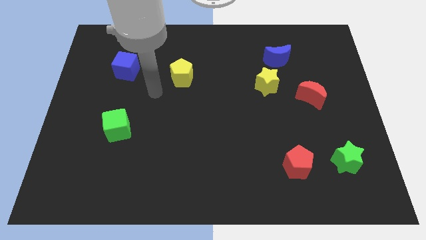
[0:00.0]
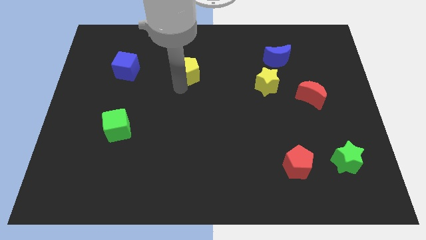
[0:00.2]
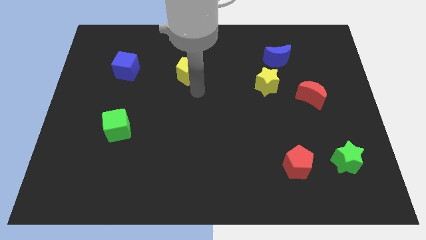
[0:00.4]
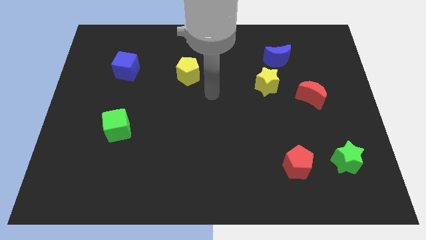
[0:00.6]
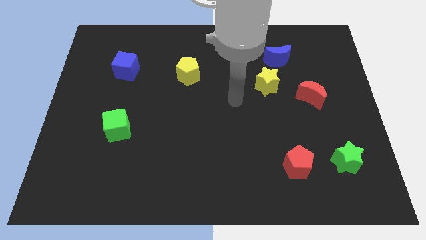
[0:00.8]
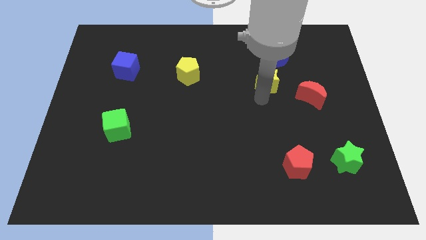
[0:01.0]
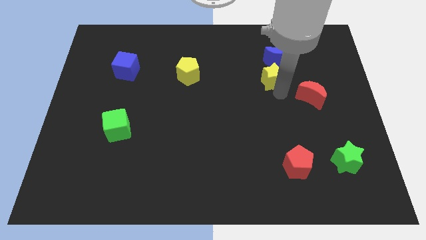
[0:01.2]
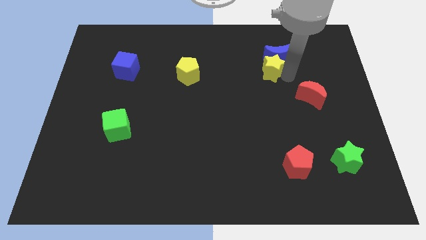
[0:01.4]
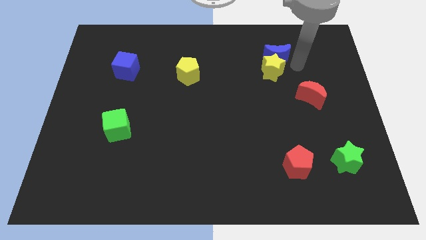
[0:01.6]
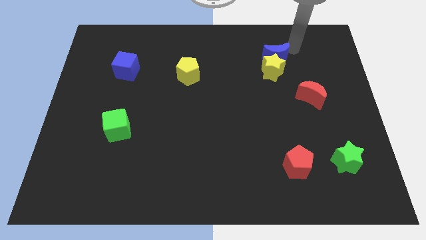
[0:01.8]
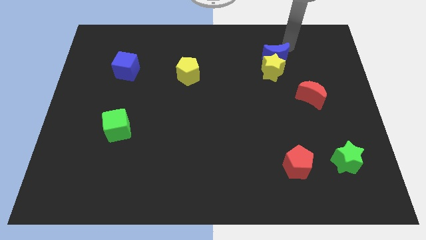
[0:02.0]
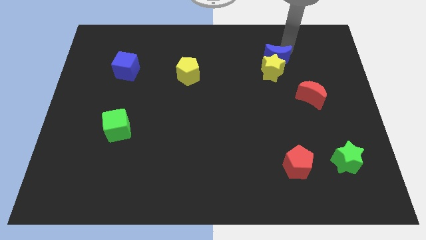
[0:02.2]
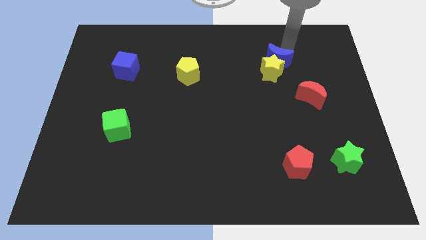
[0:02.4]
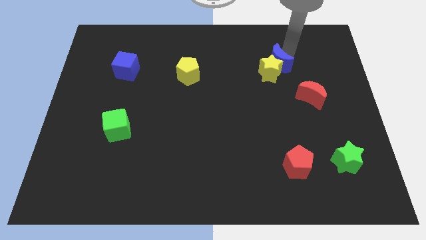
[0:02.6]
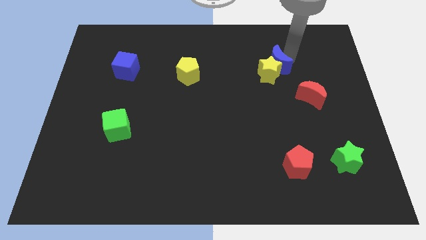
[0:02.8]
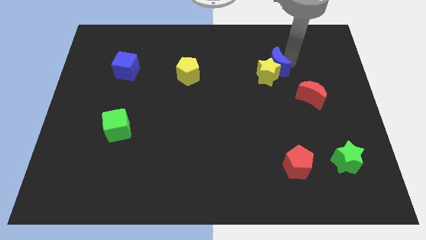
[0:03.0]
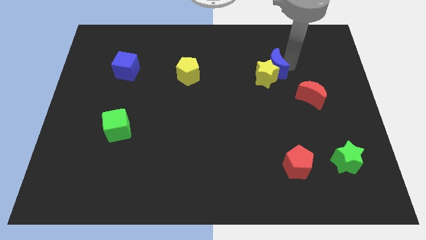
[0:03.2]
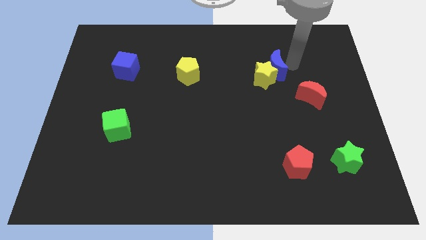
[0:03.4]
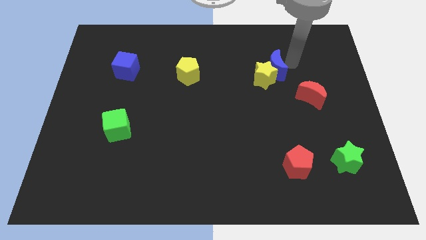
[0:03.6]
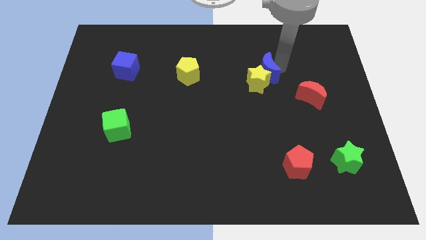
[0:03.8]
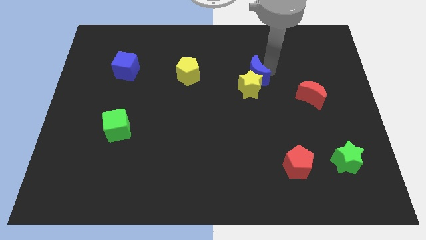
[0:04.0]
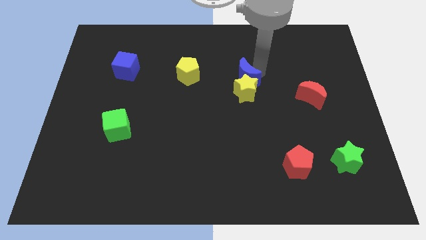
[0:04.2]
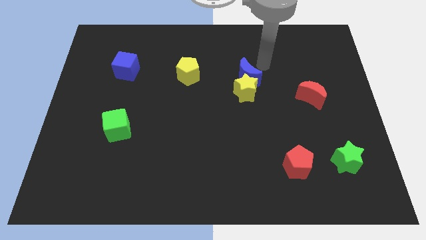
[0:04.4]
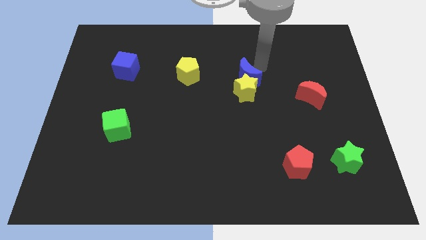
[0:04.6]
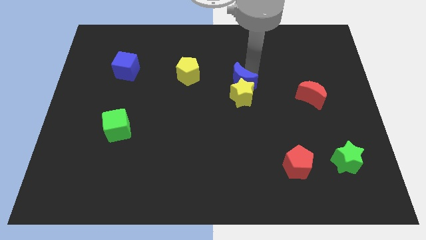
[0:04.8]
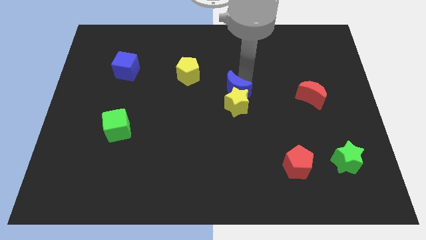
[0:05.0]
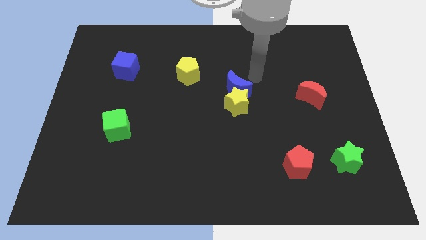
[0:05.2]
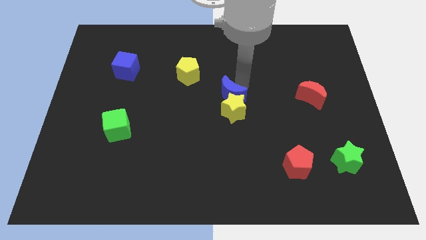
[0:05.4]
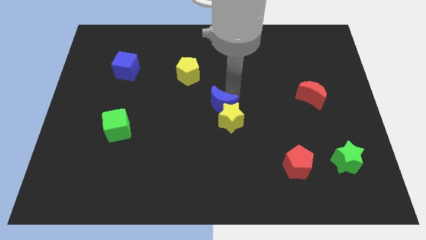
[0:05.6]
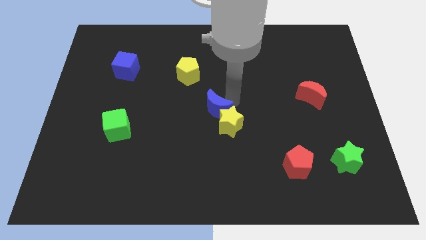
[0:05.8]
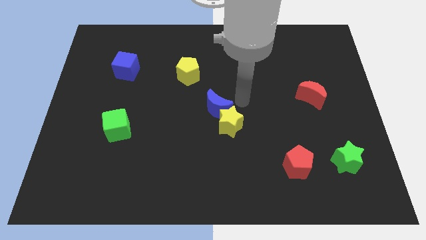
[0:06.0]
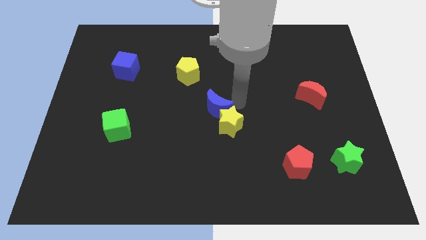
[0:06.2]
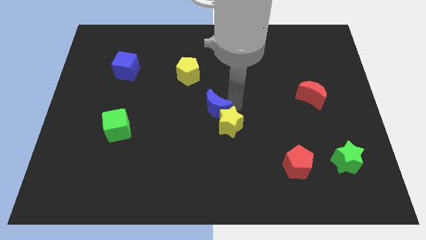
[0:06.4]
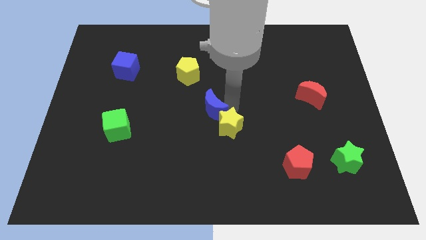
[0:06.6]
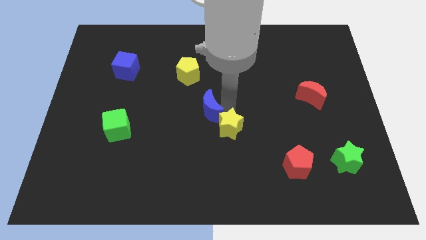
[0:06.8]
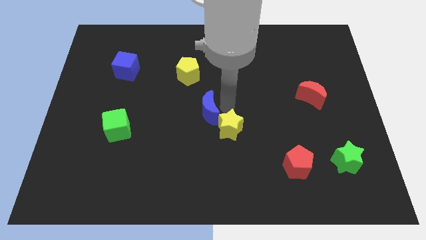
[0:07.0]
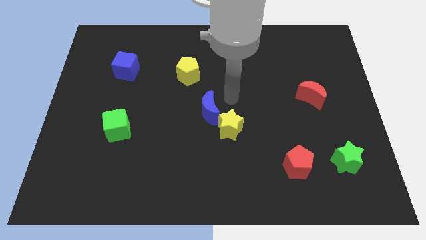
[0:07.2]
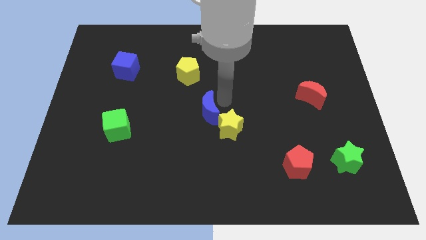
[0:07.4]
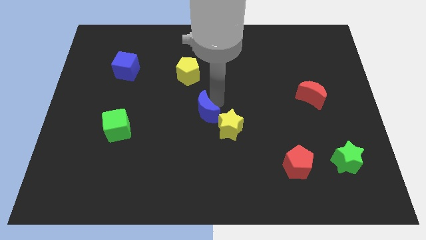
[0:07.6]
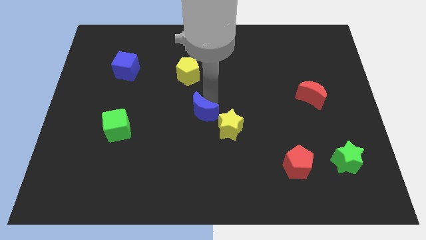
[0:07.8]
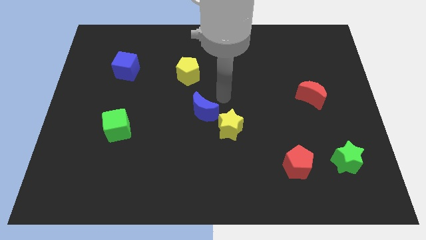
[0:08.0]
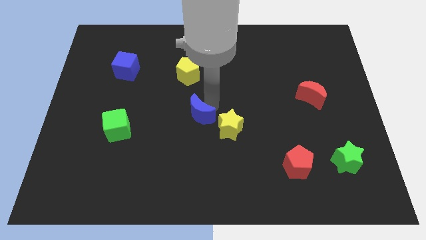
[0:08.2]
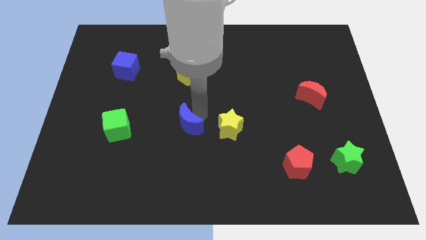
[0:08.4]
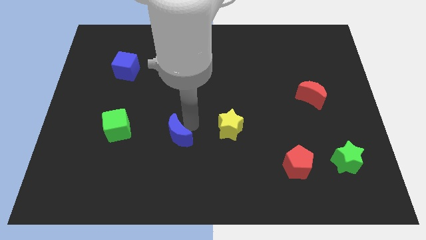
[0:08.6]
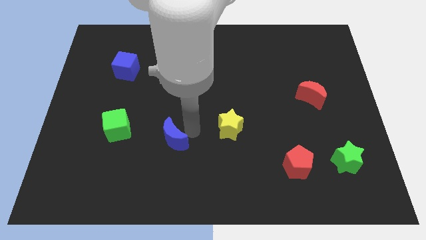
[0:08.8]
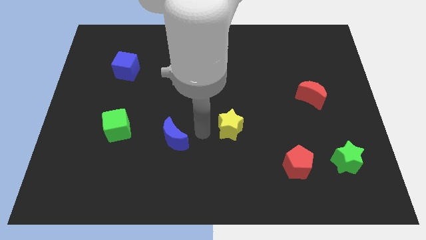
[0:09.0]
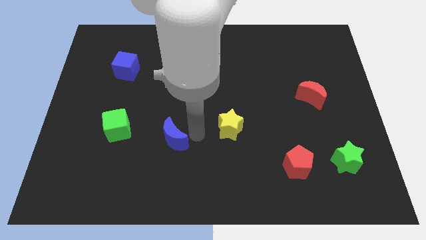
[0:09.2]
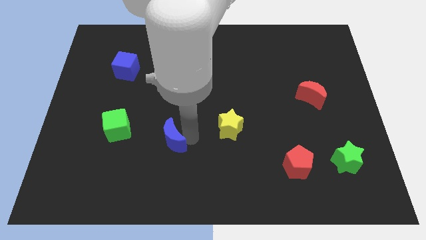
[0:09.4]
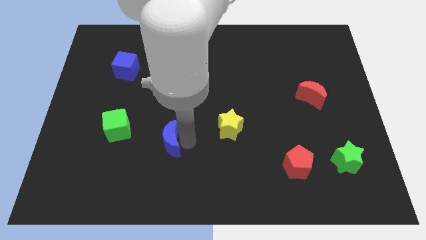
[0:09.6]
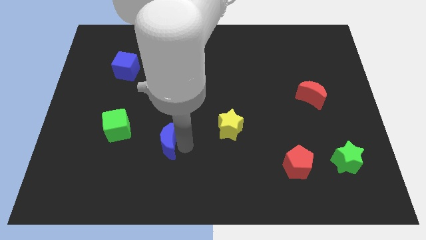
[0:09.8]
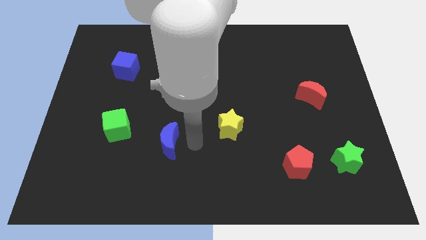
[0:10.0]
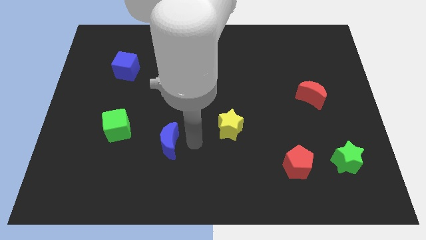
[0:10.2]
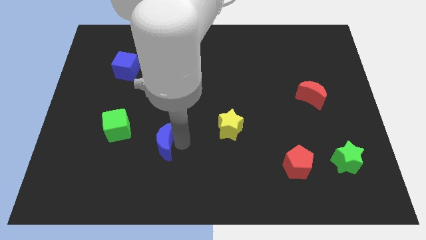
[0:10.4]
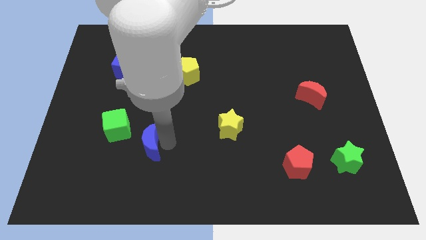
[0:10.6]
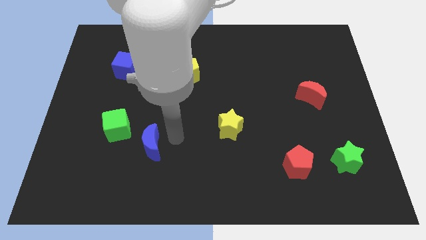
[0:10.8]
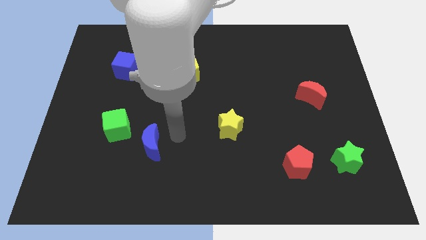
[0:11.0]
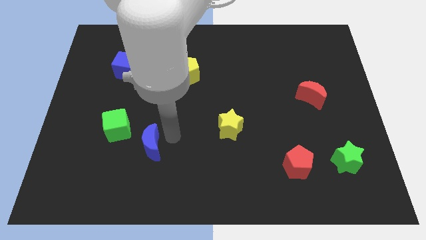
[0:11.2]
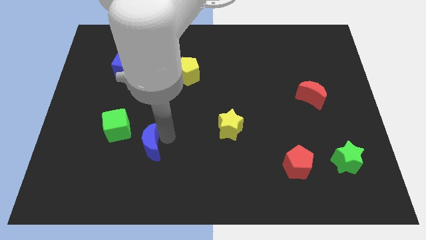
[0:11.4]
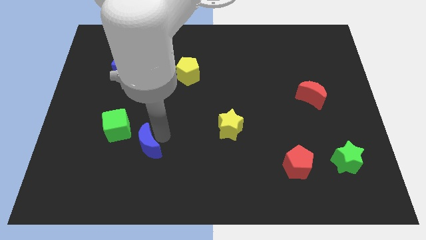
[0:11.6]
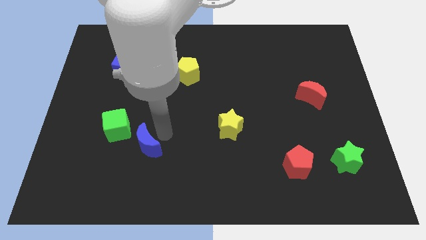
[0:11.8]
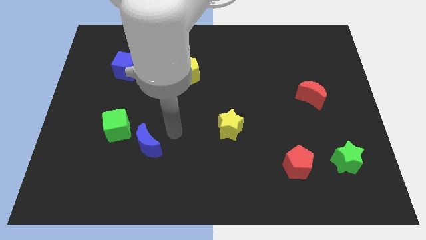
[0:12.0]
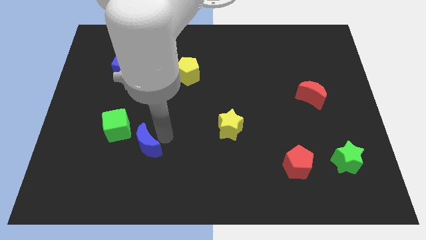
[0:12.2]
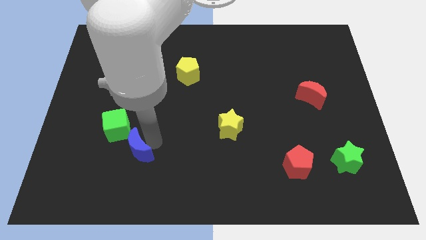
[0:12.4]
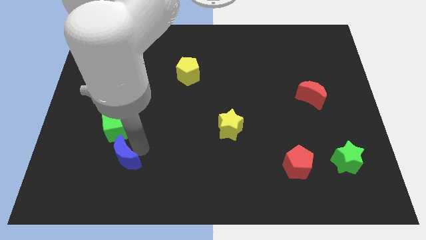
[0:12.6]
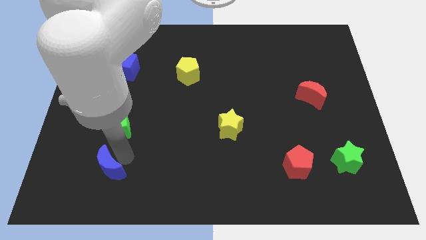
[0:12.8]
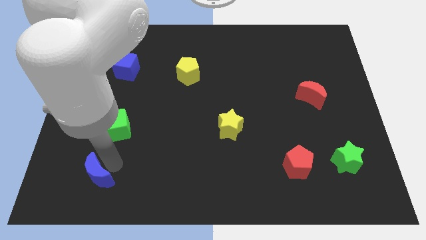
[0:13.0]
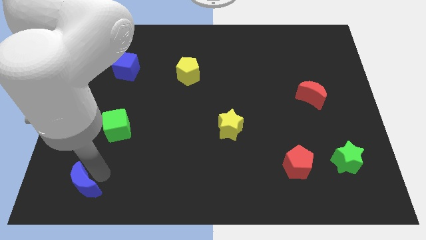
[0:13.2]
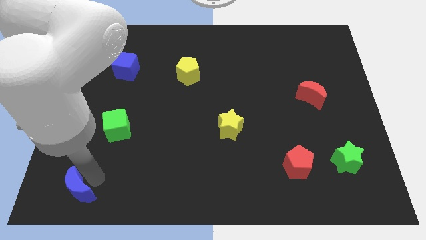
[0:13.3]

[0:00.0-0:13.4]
put the blue moon to the lower left corner

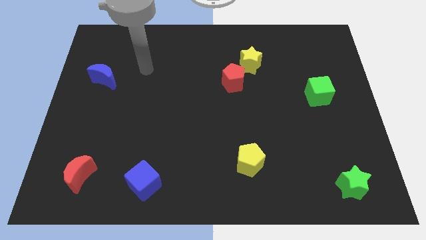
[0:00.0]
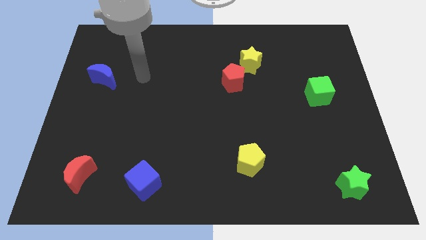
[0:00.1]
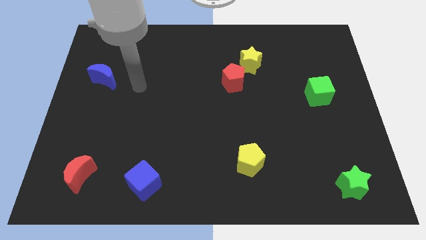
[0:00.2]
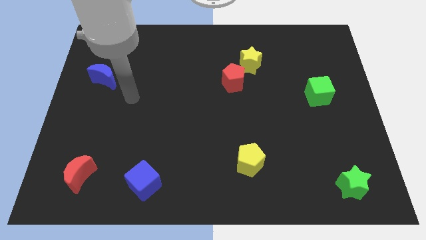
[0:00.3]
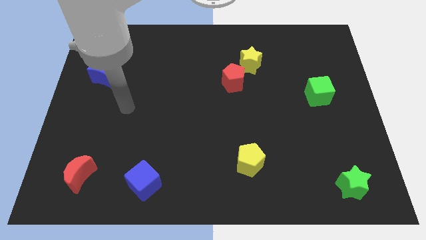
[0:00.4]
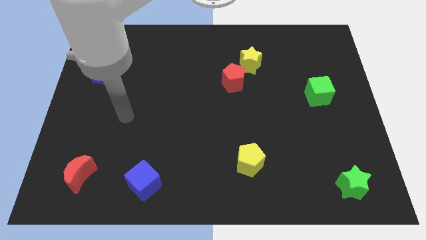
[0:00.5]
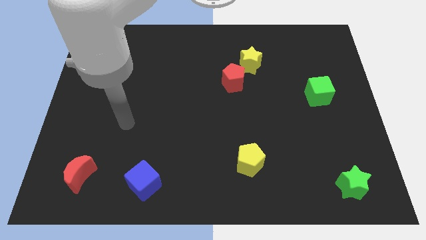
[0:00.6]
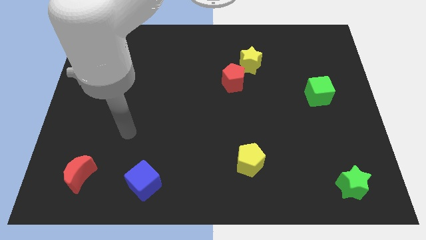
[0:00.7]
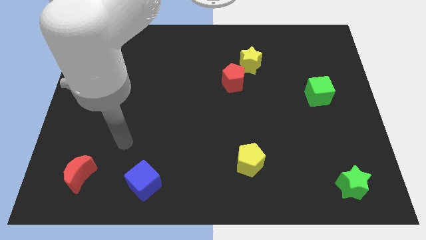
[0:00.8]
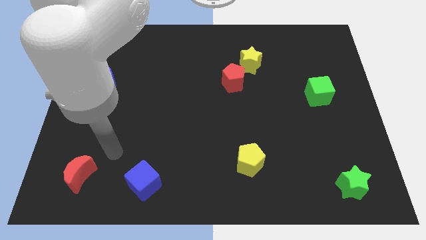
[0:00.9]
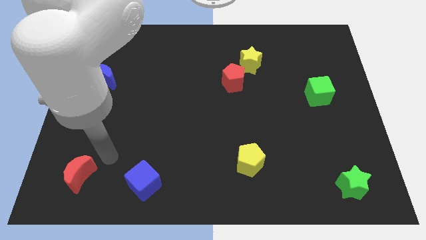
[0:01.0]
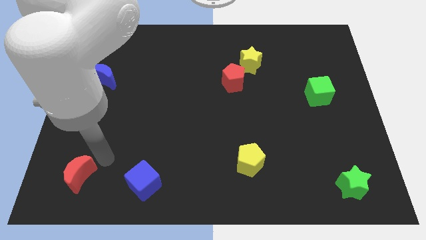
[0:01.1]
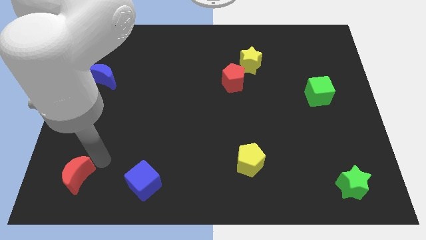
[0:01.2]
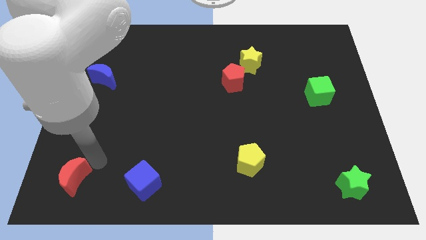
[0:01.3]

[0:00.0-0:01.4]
push the red moon to the bottom left corner
